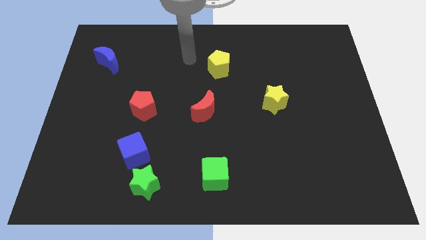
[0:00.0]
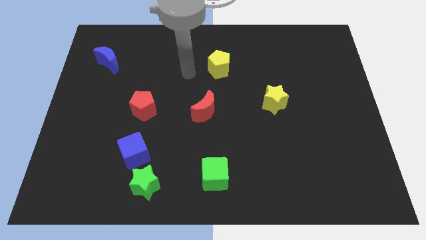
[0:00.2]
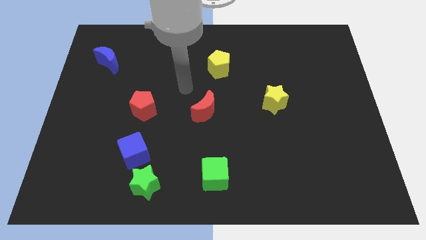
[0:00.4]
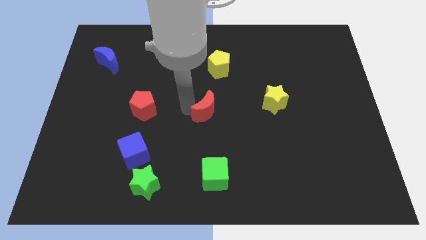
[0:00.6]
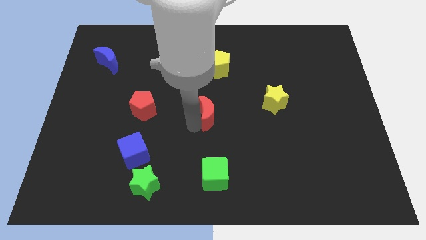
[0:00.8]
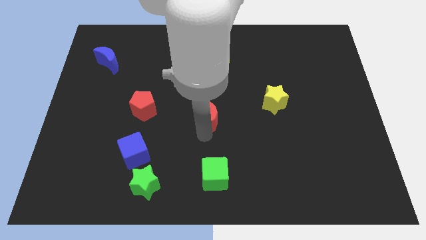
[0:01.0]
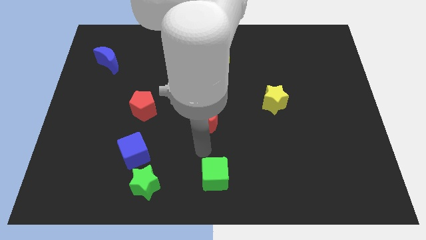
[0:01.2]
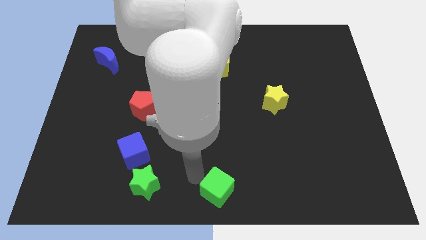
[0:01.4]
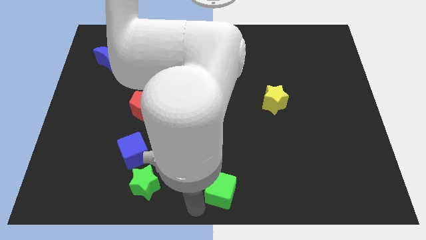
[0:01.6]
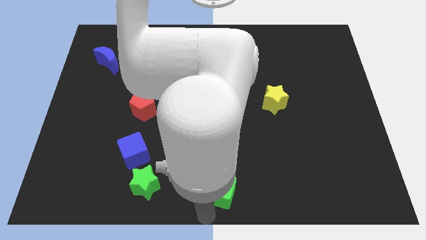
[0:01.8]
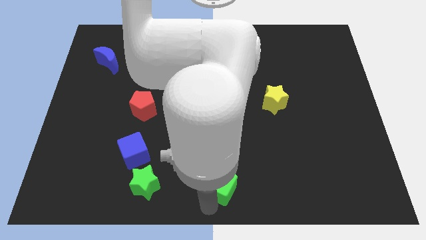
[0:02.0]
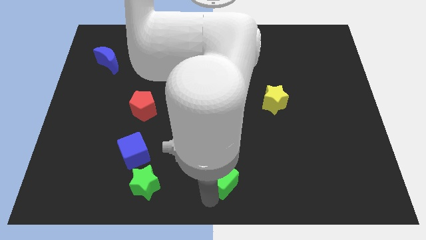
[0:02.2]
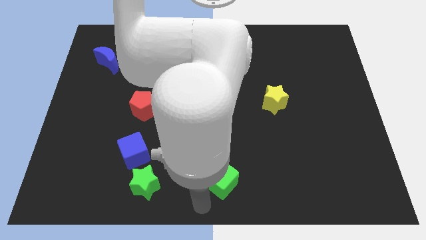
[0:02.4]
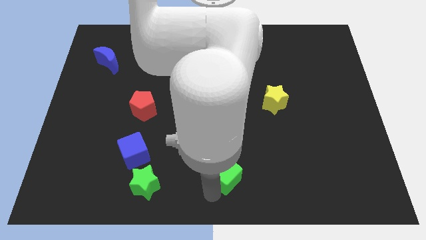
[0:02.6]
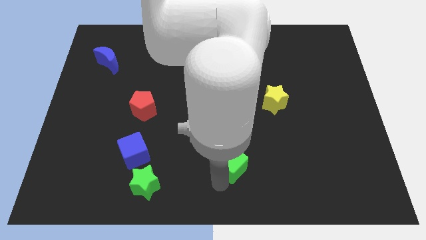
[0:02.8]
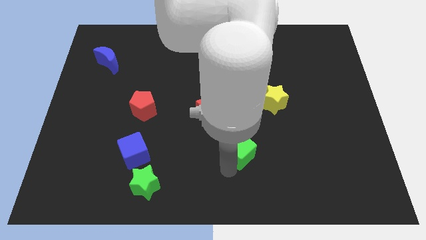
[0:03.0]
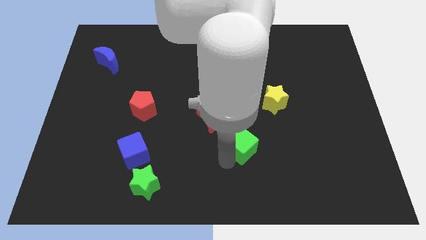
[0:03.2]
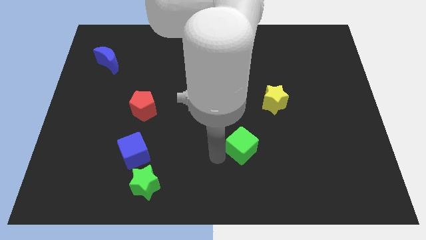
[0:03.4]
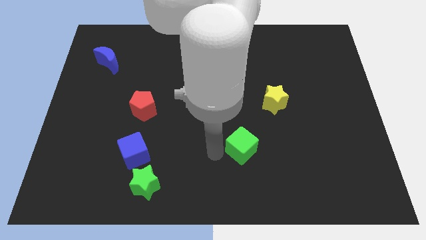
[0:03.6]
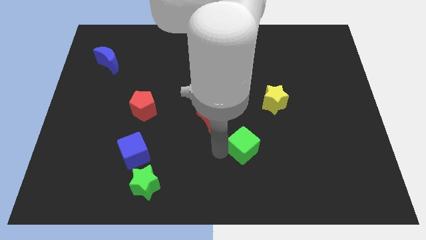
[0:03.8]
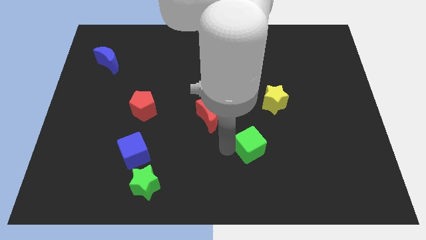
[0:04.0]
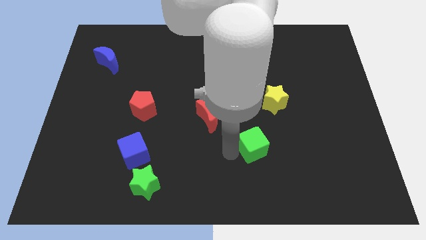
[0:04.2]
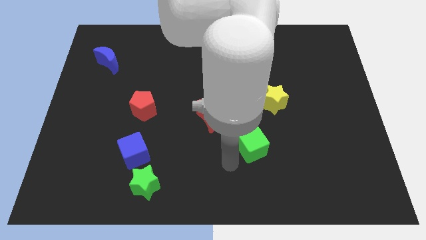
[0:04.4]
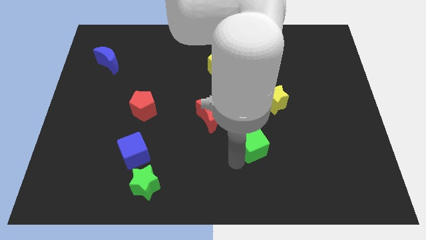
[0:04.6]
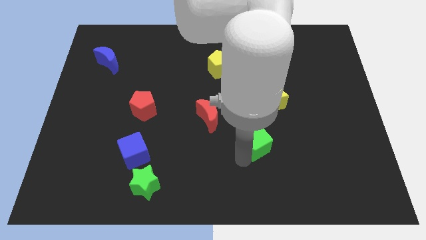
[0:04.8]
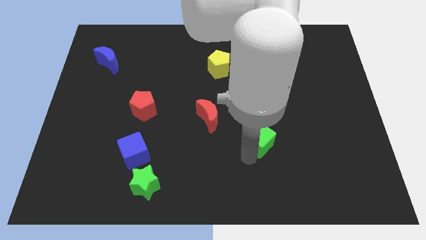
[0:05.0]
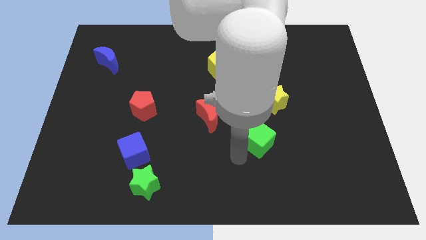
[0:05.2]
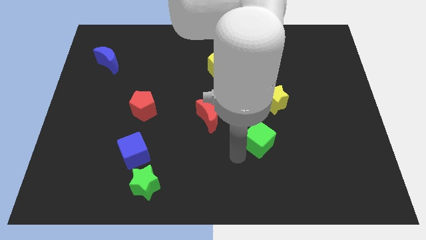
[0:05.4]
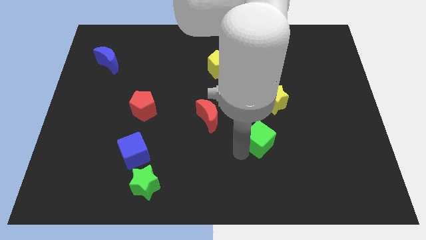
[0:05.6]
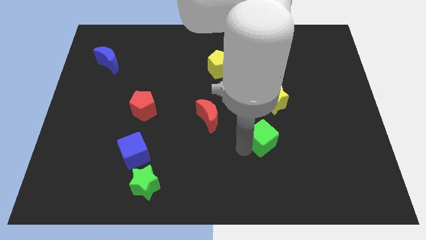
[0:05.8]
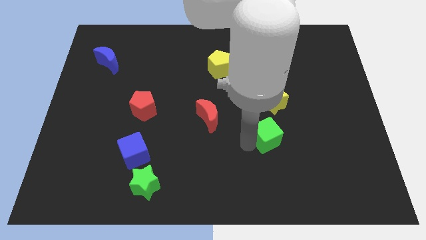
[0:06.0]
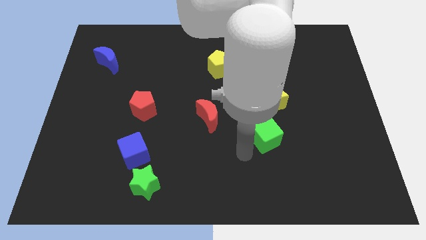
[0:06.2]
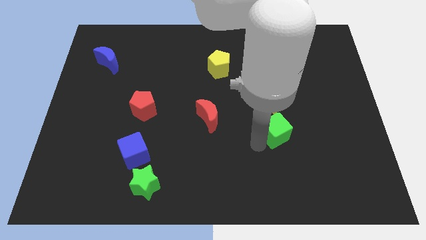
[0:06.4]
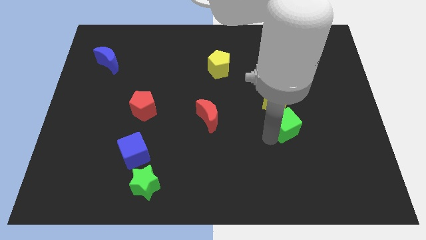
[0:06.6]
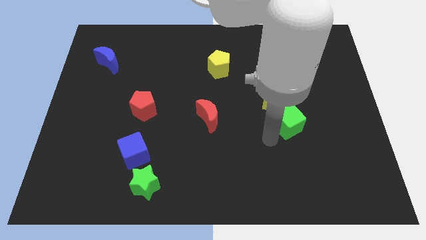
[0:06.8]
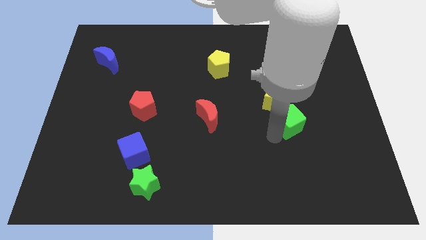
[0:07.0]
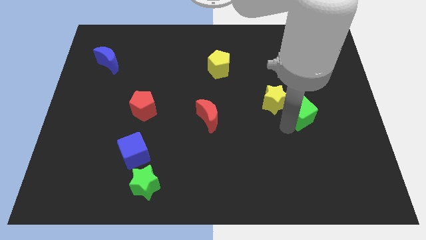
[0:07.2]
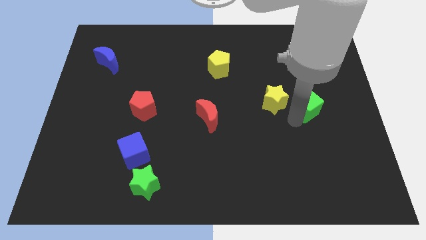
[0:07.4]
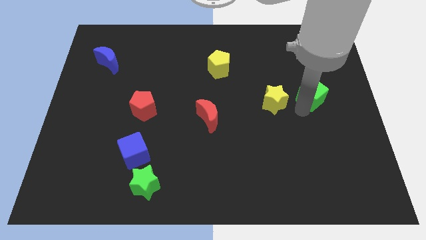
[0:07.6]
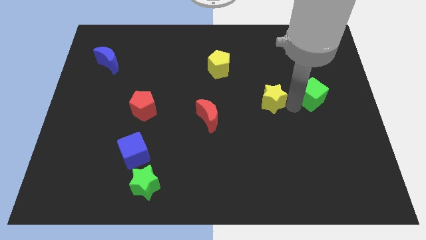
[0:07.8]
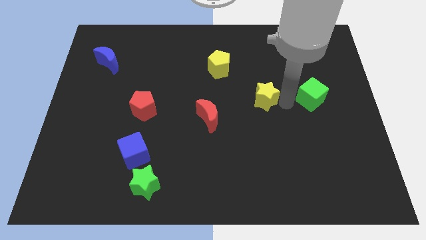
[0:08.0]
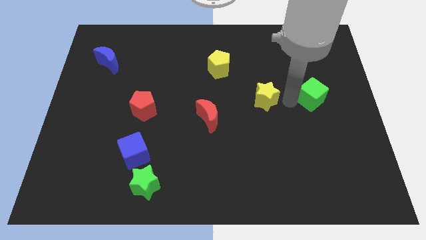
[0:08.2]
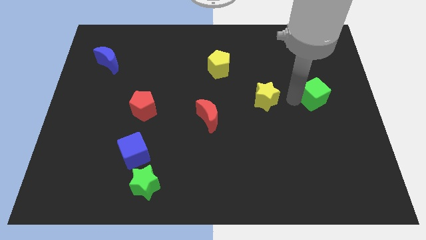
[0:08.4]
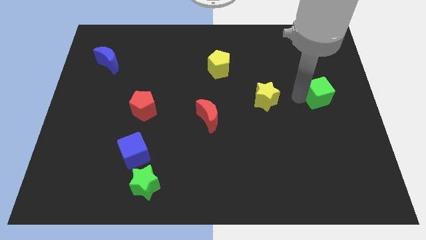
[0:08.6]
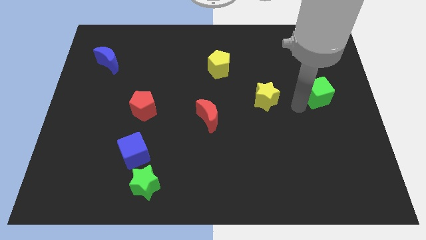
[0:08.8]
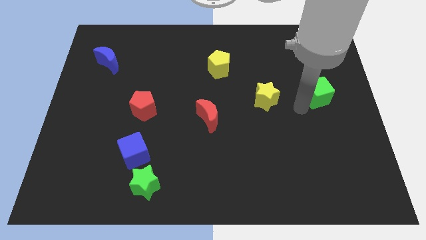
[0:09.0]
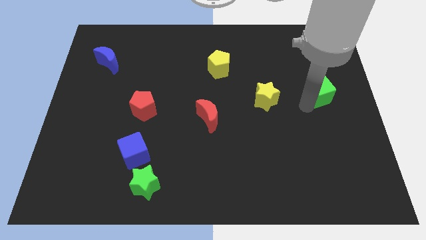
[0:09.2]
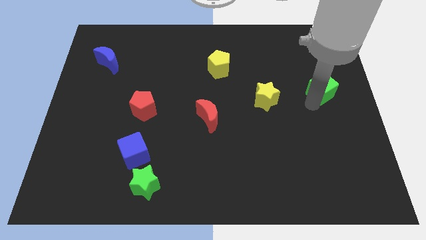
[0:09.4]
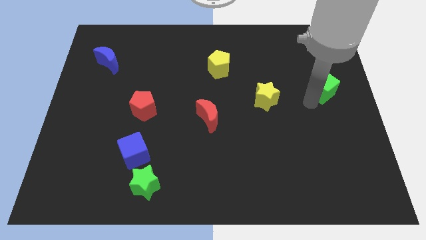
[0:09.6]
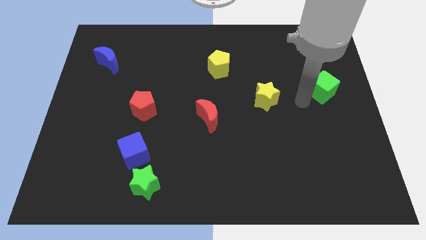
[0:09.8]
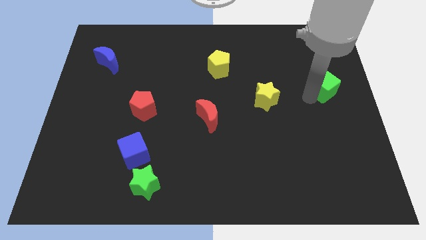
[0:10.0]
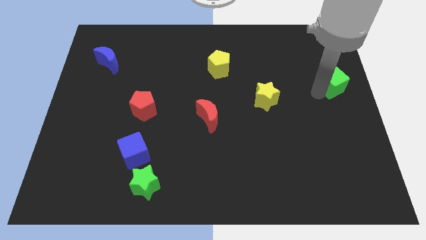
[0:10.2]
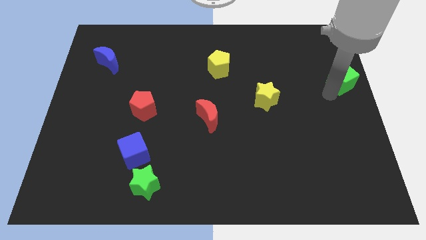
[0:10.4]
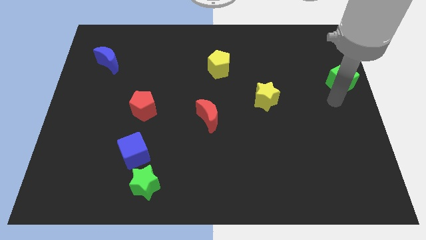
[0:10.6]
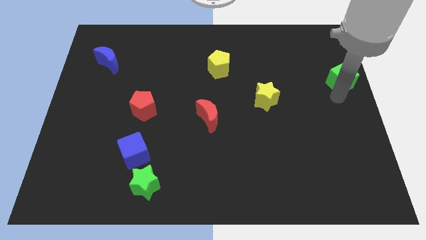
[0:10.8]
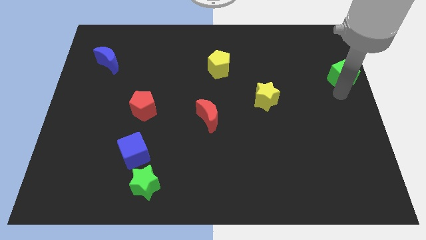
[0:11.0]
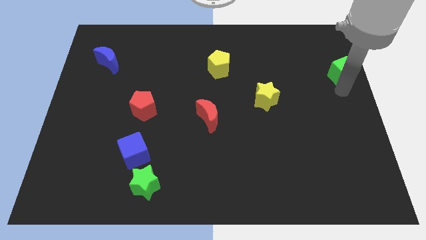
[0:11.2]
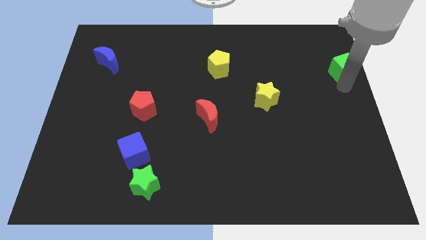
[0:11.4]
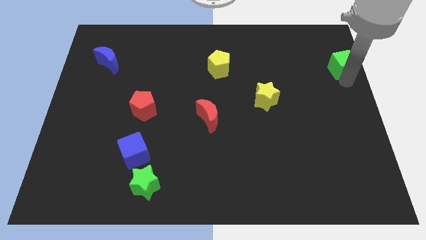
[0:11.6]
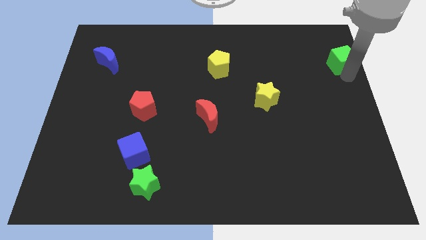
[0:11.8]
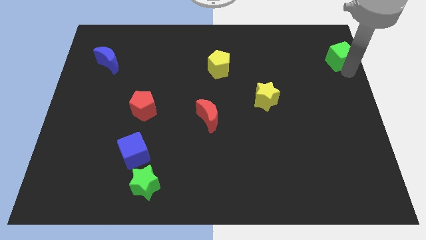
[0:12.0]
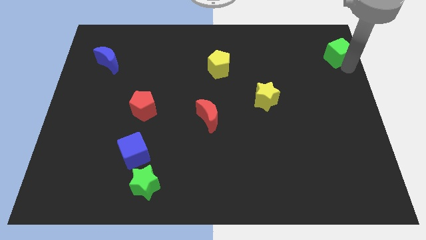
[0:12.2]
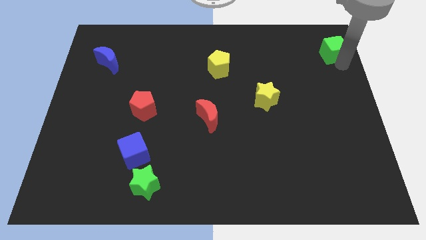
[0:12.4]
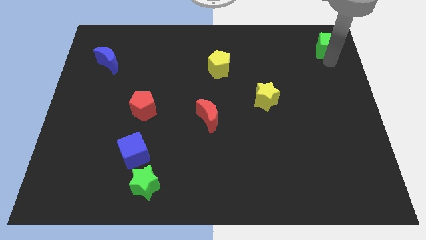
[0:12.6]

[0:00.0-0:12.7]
move the green cube to the upper right corner

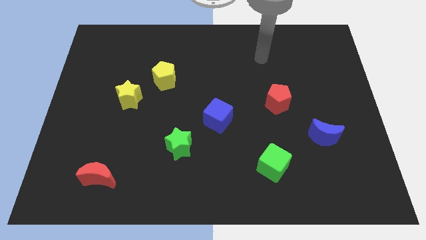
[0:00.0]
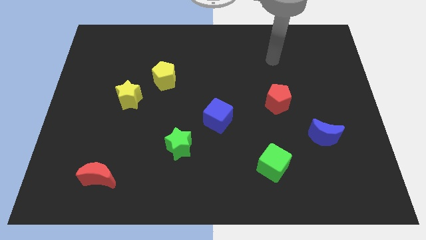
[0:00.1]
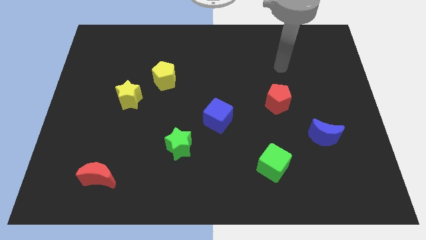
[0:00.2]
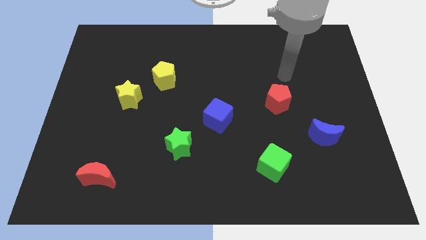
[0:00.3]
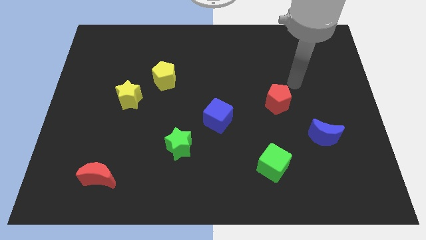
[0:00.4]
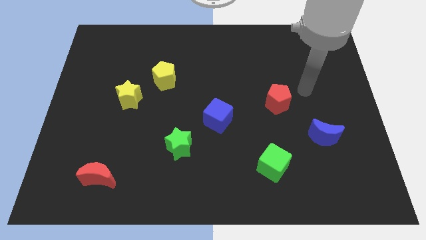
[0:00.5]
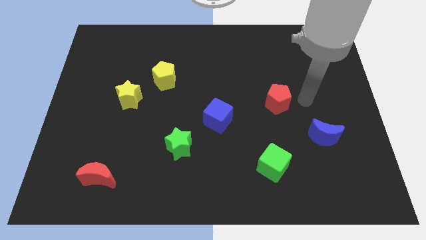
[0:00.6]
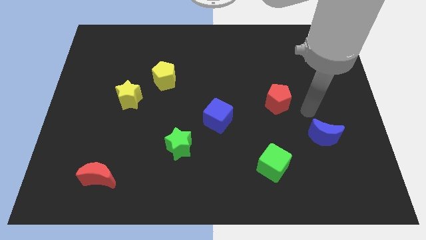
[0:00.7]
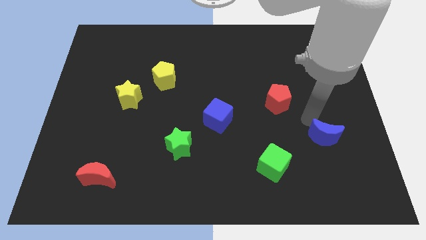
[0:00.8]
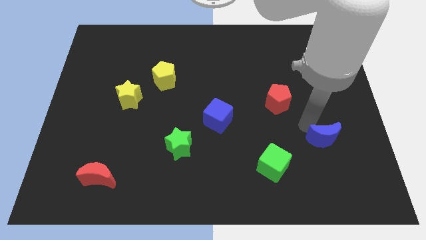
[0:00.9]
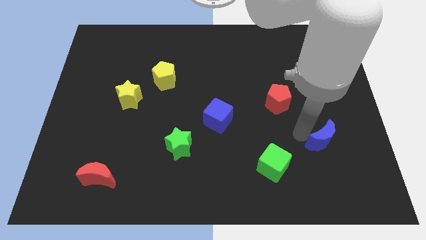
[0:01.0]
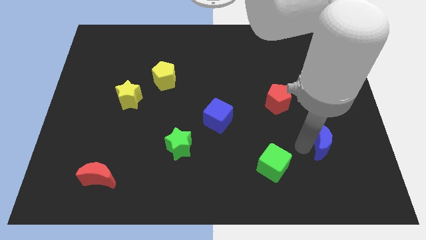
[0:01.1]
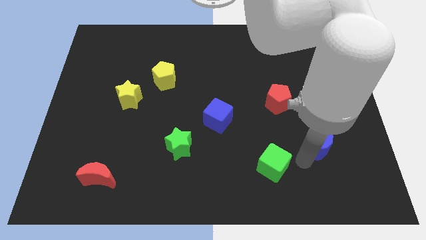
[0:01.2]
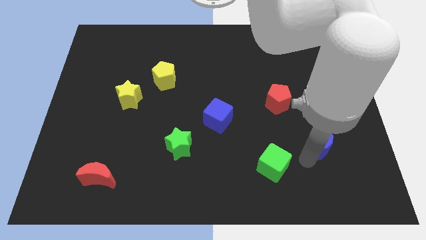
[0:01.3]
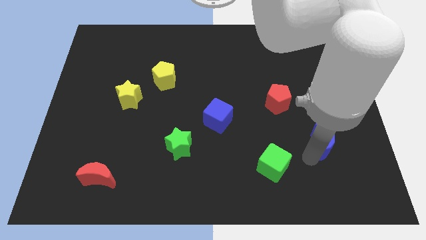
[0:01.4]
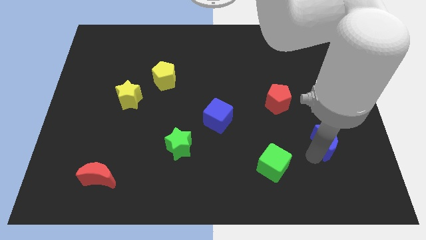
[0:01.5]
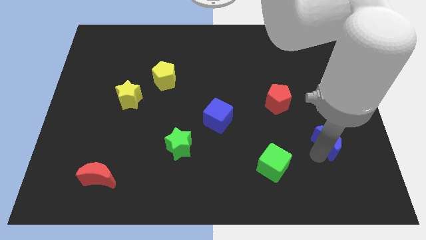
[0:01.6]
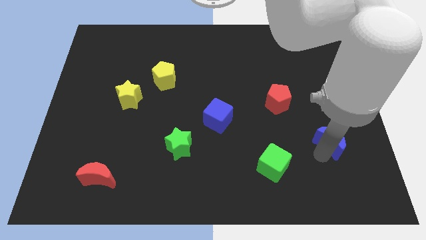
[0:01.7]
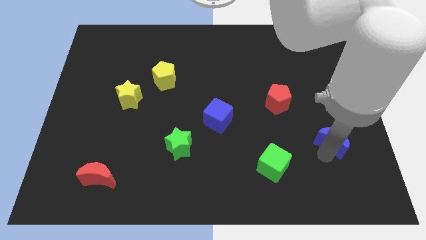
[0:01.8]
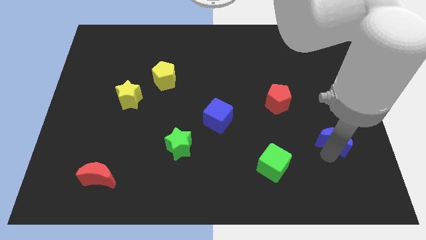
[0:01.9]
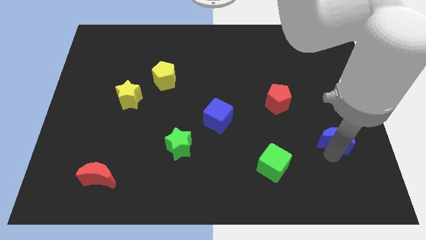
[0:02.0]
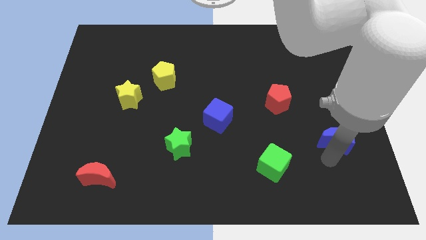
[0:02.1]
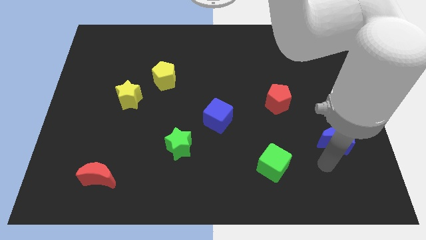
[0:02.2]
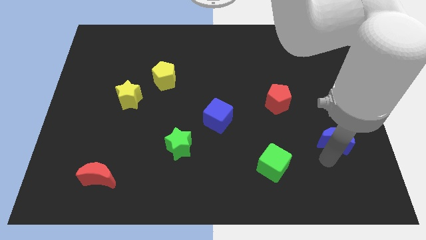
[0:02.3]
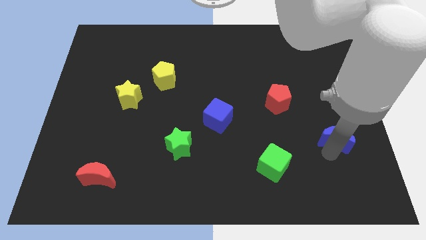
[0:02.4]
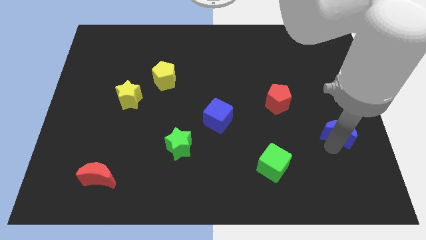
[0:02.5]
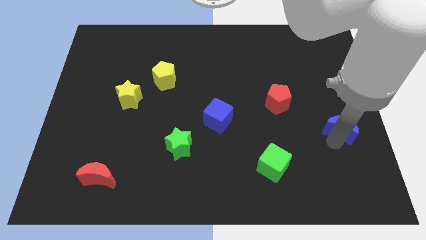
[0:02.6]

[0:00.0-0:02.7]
push the blue moon to the right side
